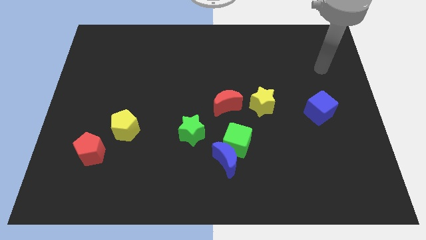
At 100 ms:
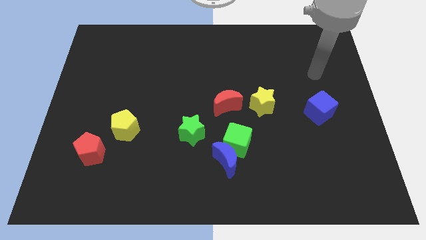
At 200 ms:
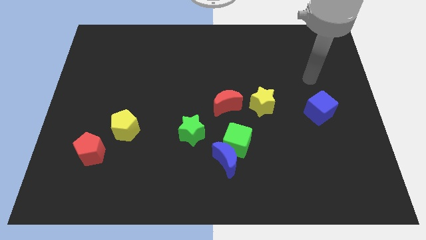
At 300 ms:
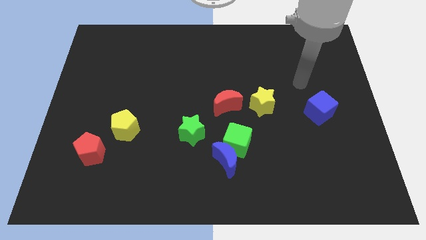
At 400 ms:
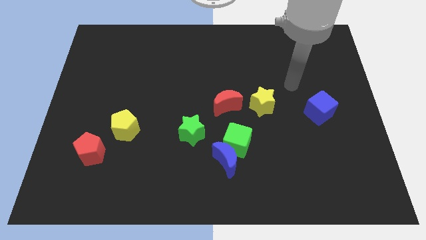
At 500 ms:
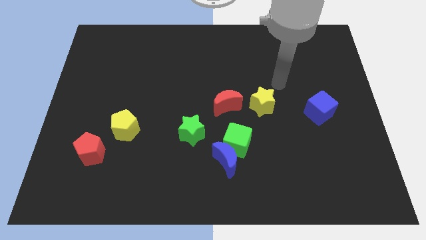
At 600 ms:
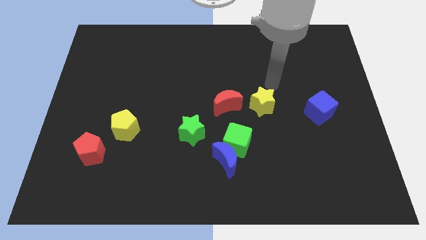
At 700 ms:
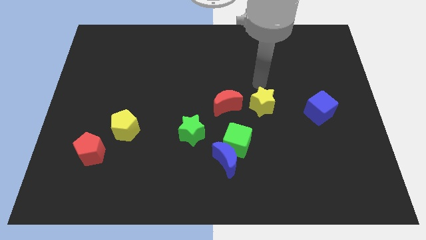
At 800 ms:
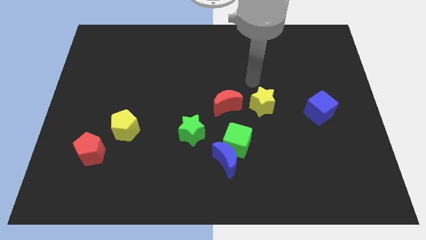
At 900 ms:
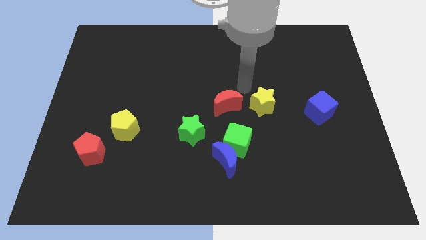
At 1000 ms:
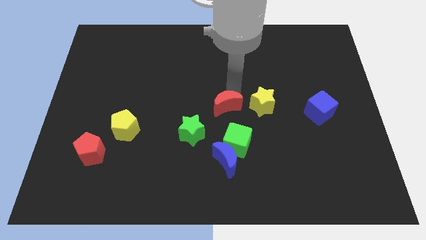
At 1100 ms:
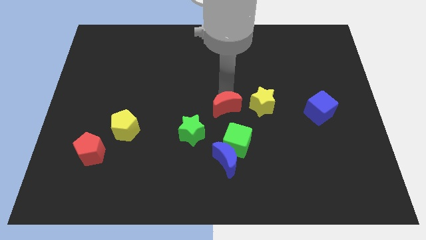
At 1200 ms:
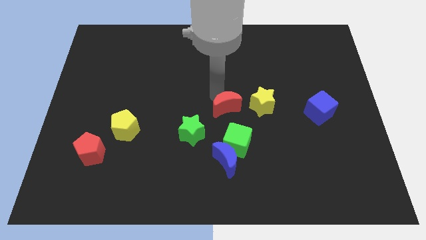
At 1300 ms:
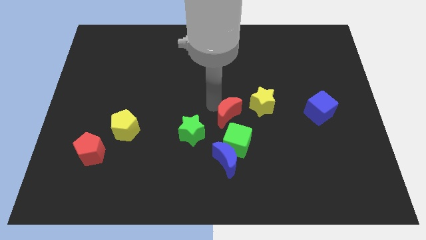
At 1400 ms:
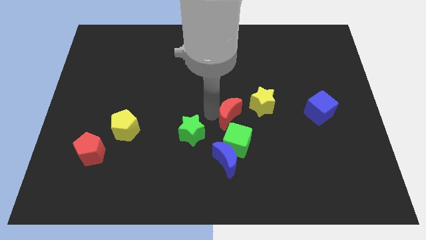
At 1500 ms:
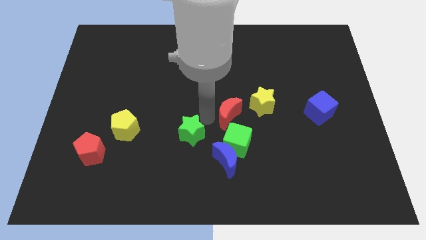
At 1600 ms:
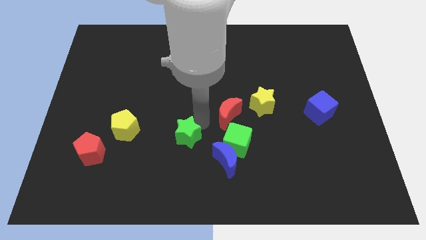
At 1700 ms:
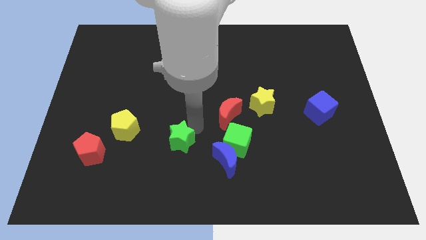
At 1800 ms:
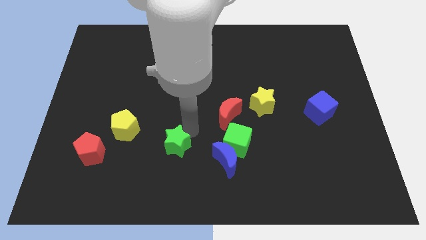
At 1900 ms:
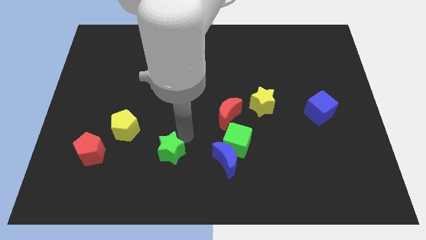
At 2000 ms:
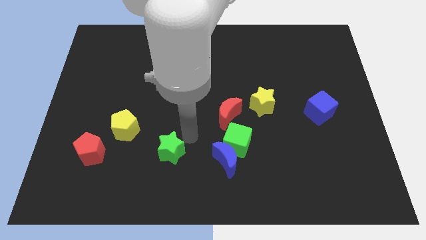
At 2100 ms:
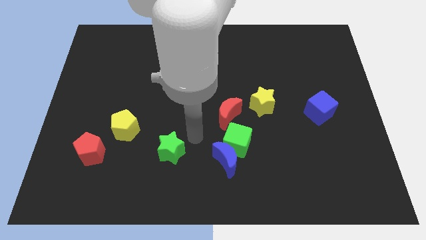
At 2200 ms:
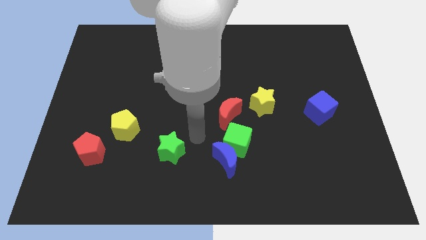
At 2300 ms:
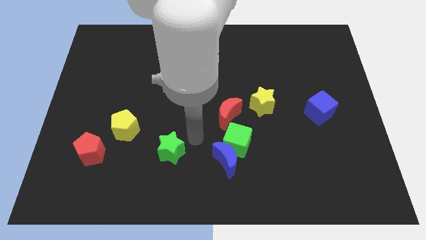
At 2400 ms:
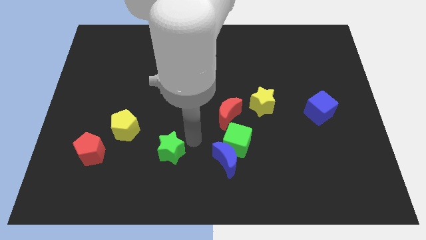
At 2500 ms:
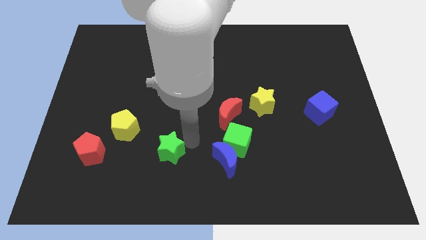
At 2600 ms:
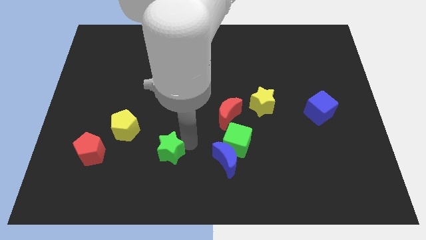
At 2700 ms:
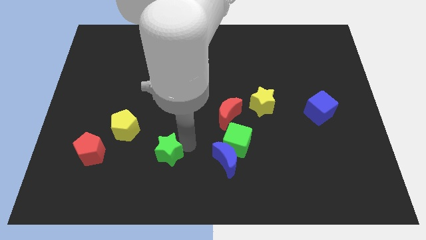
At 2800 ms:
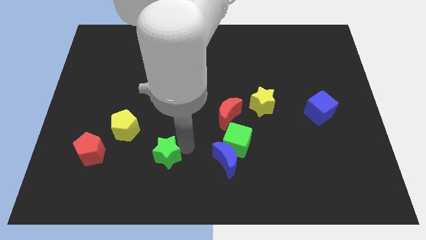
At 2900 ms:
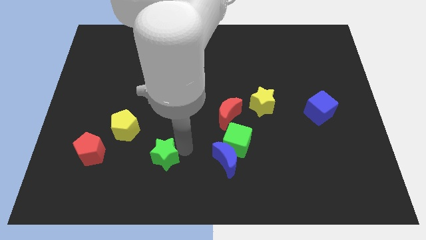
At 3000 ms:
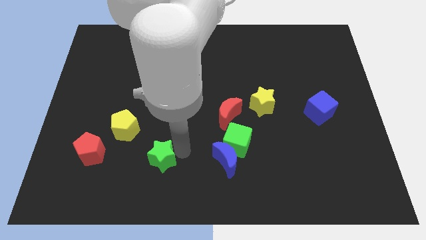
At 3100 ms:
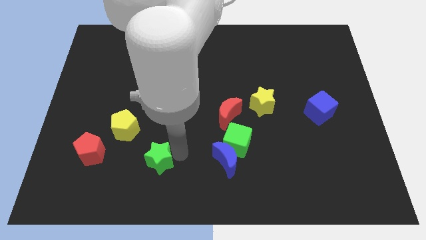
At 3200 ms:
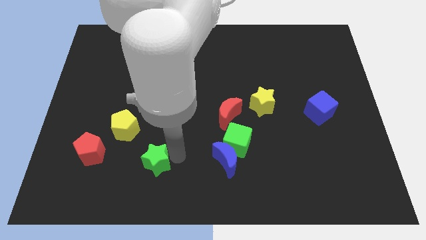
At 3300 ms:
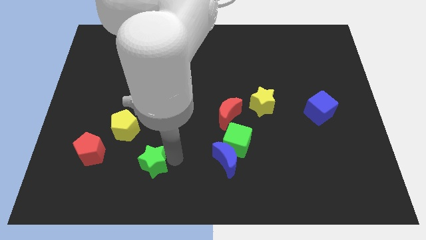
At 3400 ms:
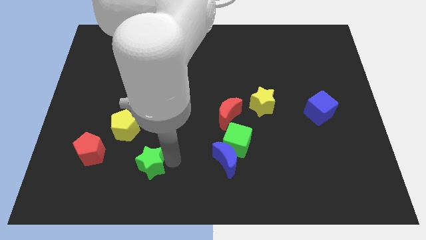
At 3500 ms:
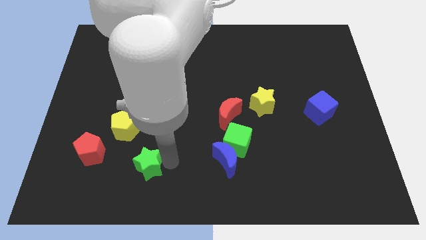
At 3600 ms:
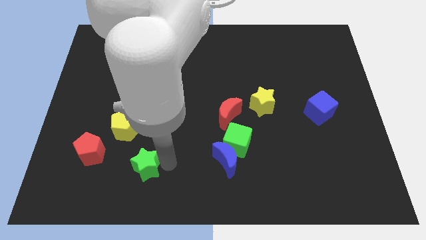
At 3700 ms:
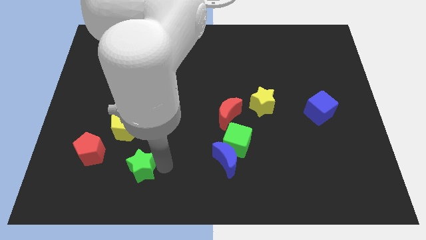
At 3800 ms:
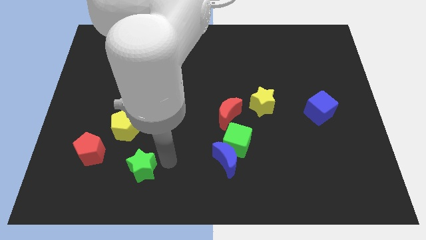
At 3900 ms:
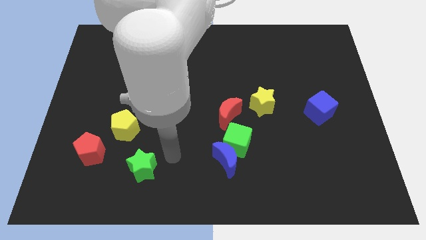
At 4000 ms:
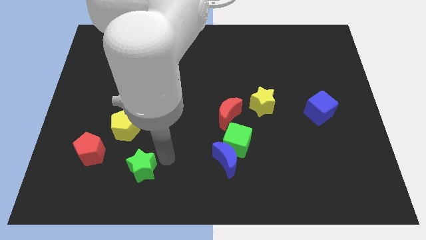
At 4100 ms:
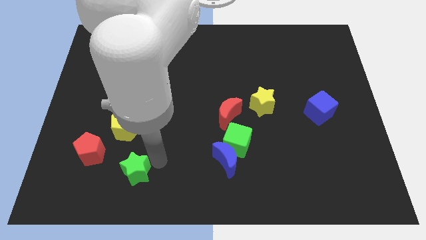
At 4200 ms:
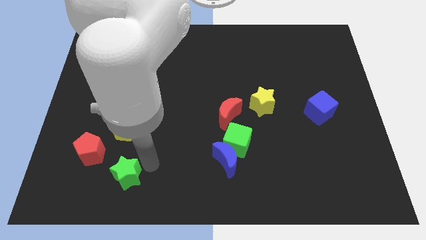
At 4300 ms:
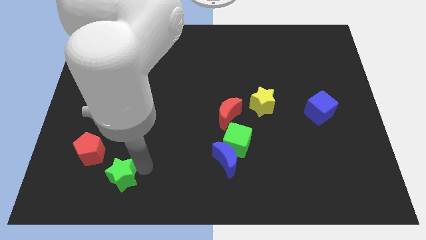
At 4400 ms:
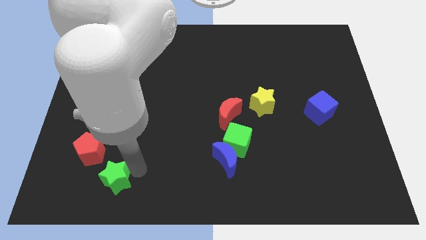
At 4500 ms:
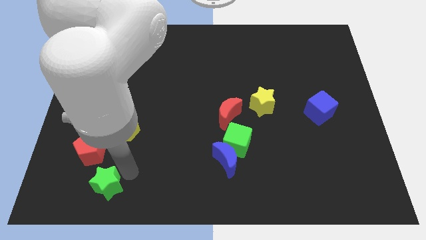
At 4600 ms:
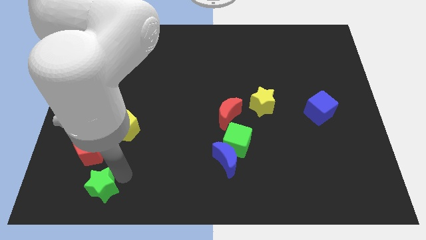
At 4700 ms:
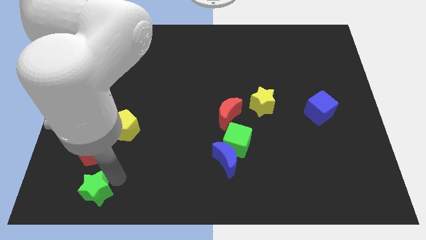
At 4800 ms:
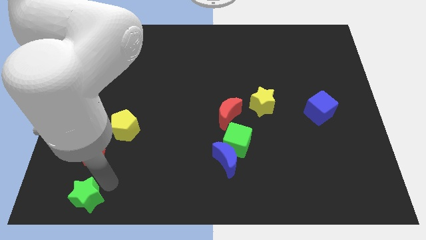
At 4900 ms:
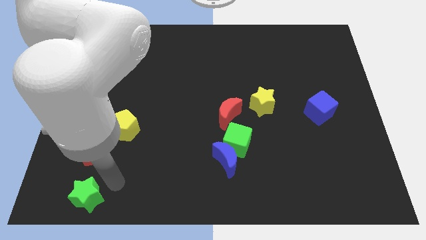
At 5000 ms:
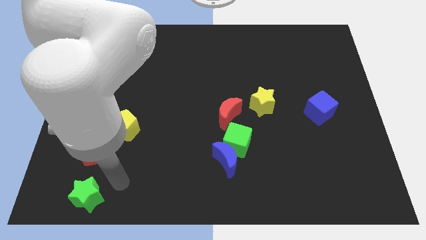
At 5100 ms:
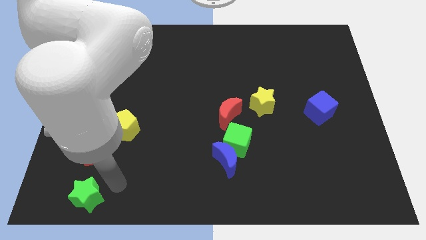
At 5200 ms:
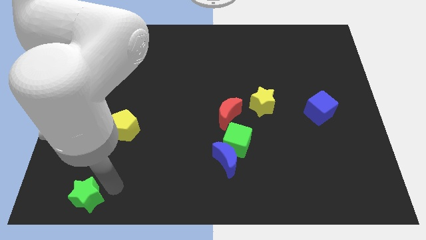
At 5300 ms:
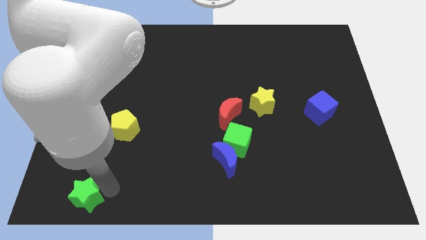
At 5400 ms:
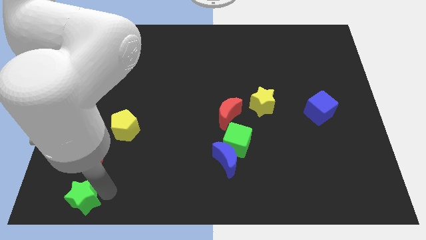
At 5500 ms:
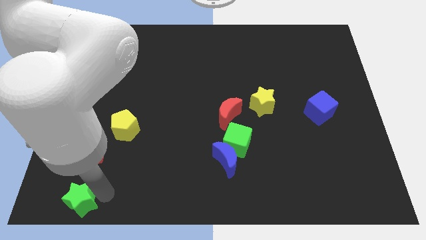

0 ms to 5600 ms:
slide the green star to the lower left corner

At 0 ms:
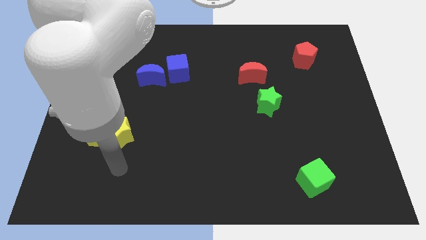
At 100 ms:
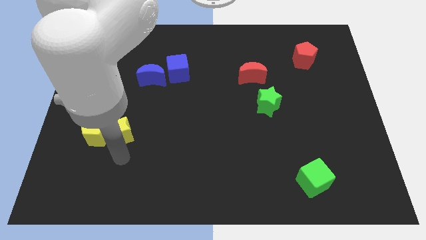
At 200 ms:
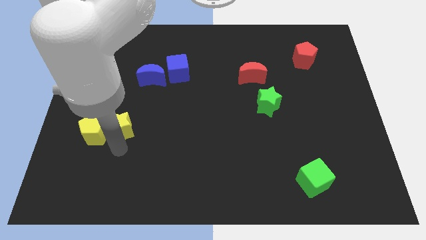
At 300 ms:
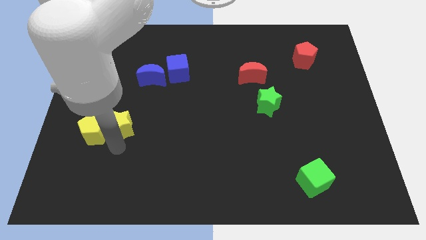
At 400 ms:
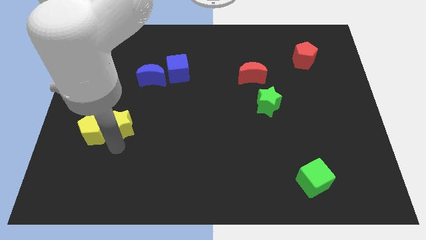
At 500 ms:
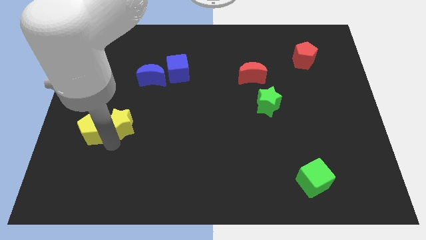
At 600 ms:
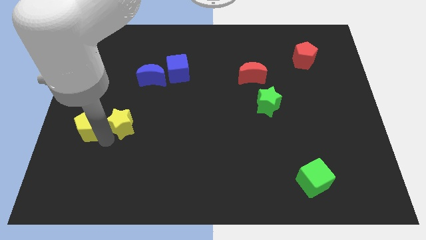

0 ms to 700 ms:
put the yellow pentagon to the left side
